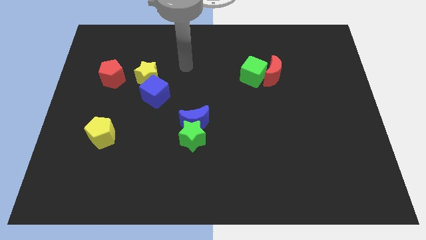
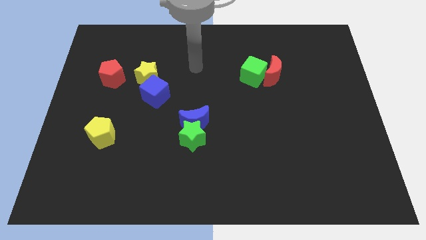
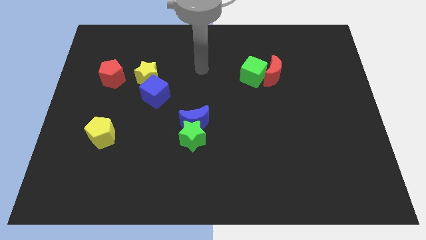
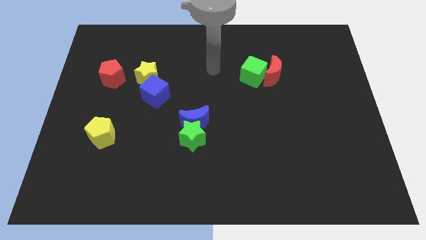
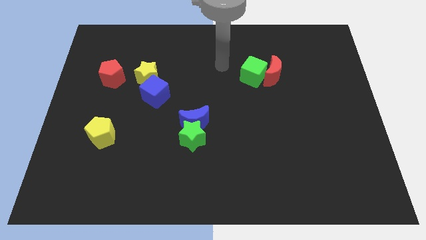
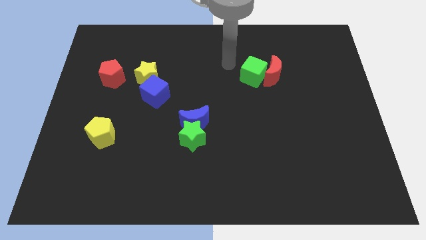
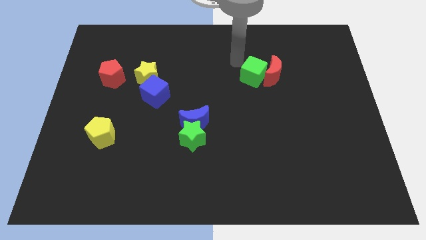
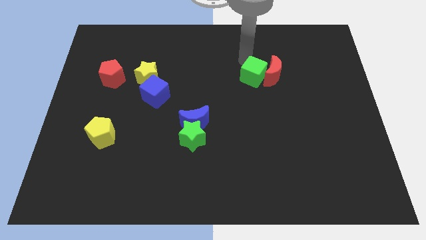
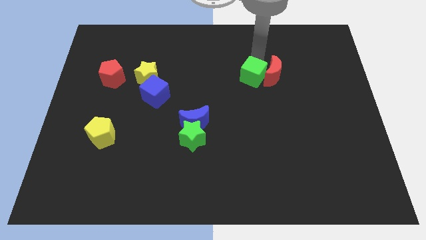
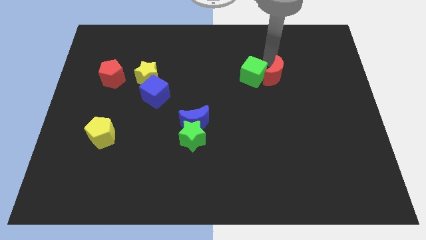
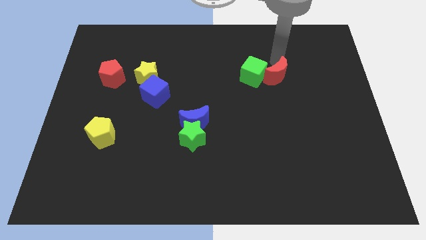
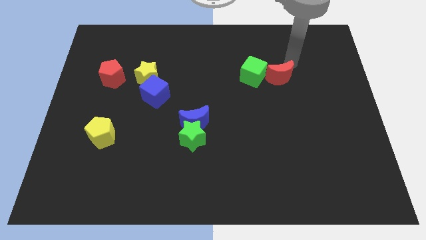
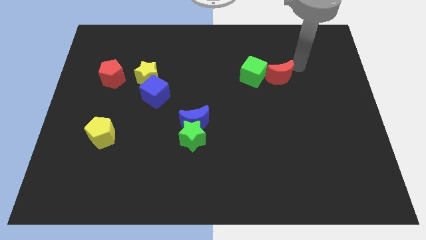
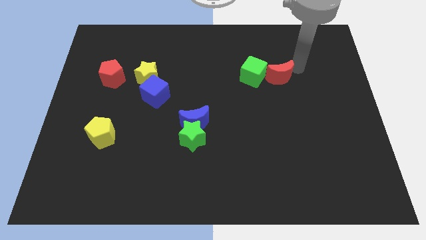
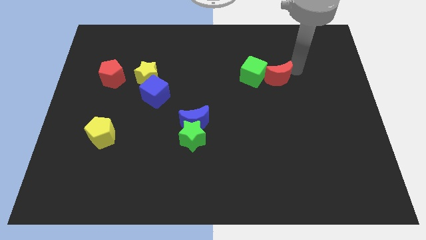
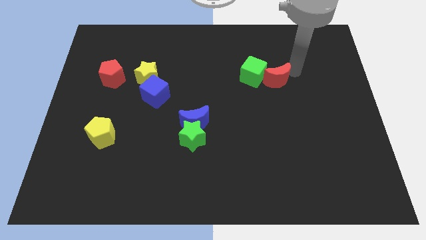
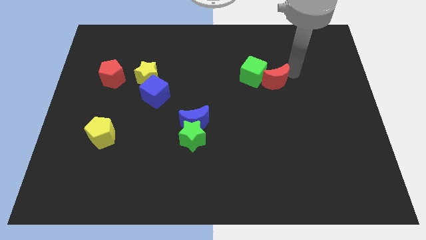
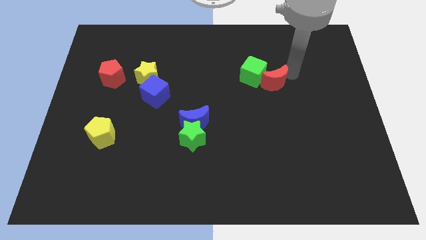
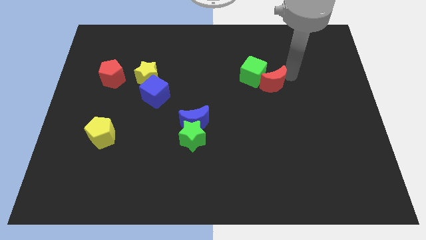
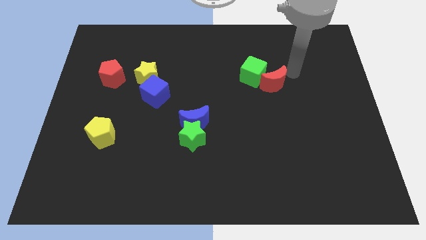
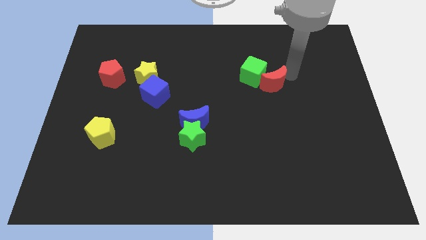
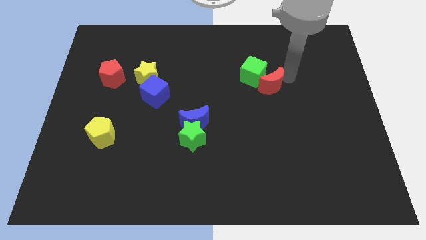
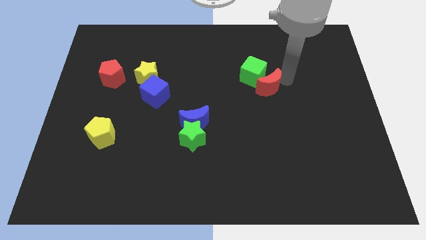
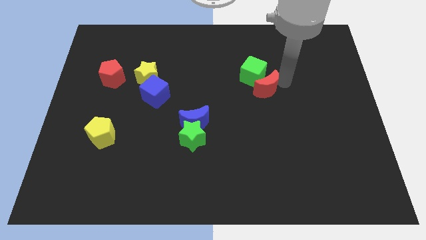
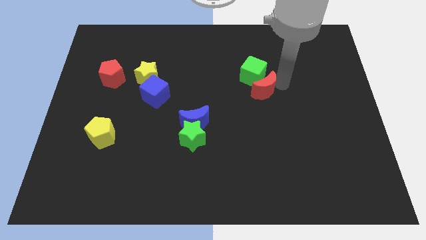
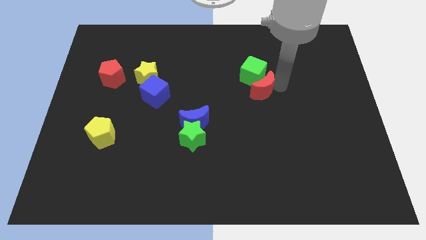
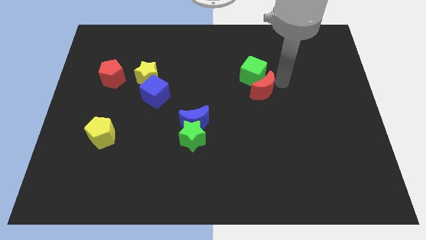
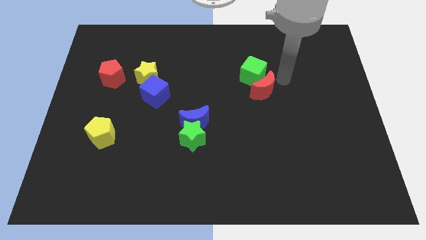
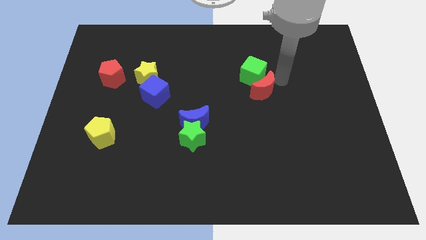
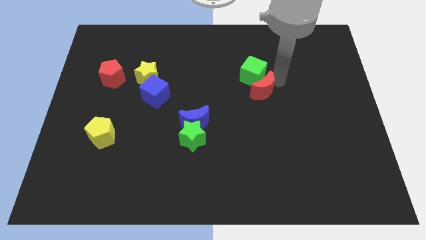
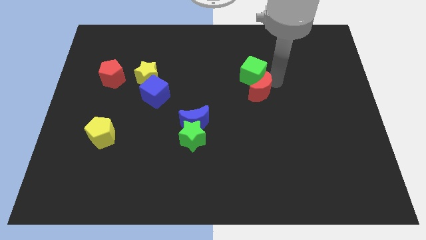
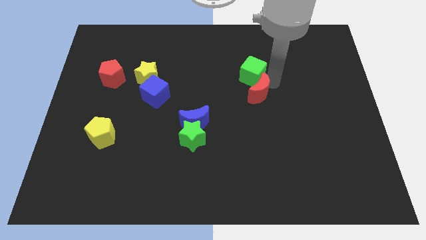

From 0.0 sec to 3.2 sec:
slightly slide the red moon down and left diagonally

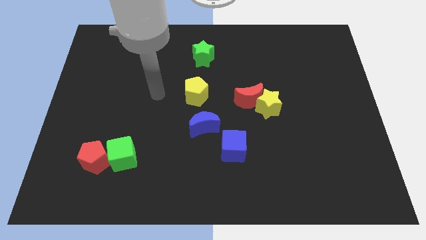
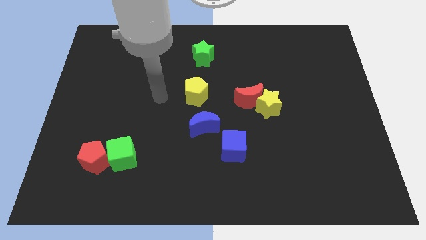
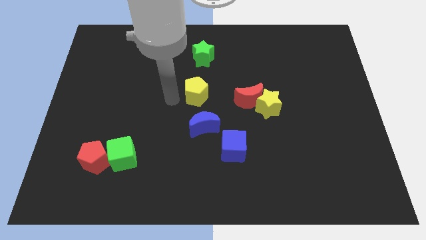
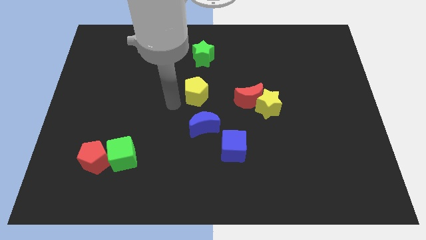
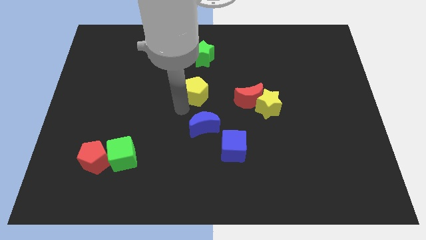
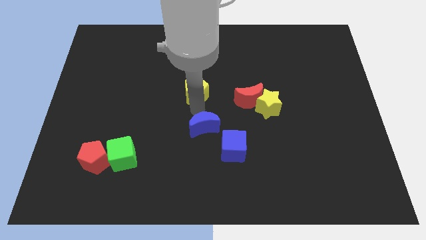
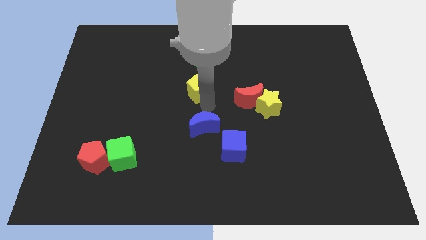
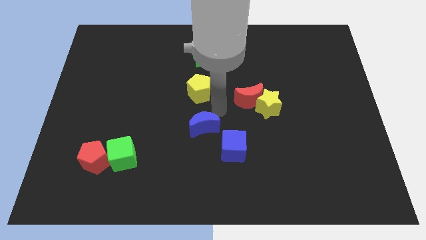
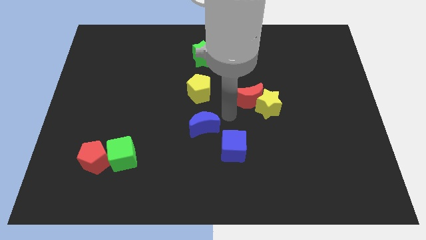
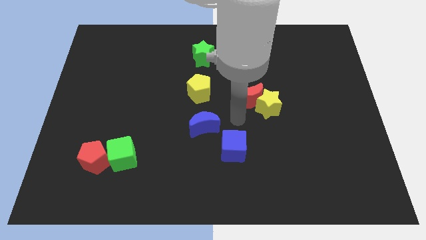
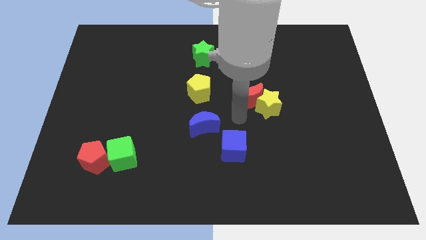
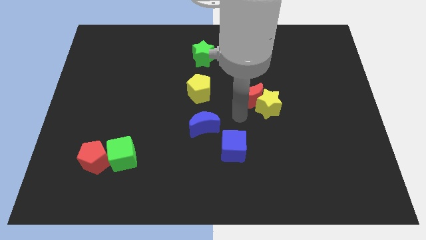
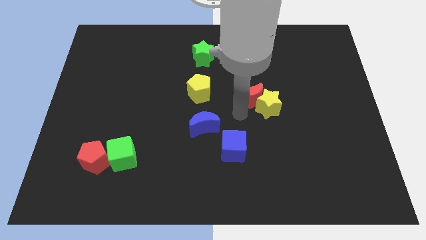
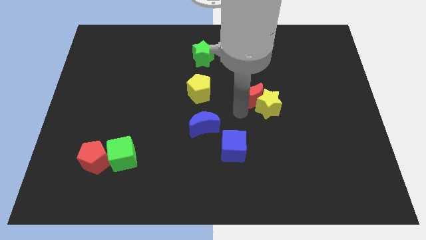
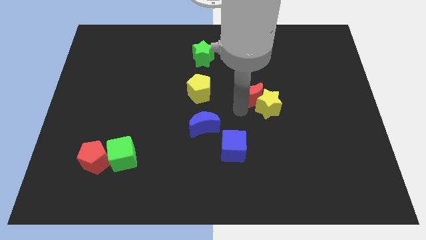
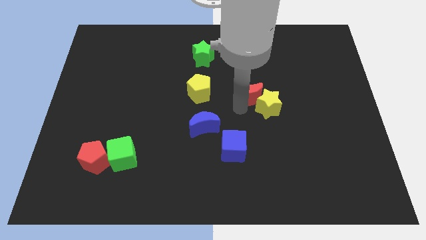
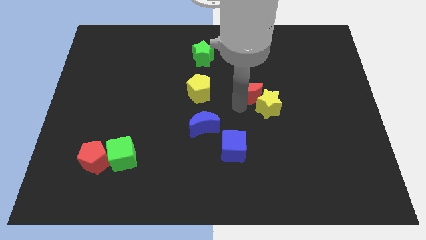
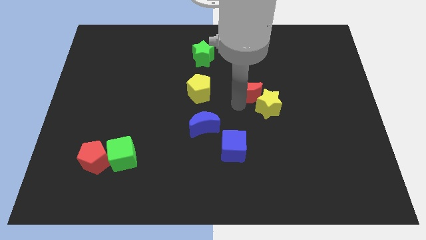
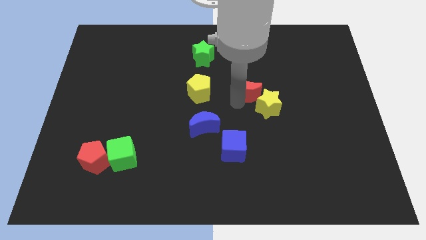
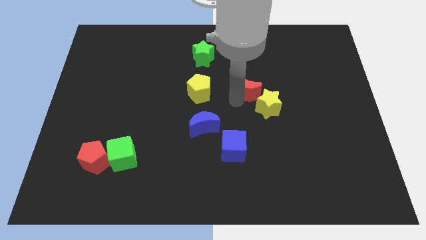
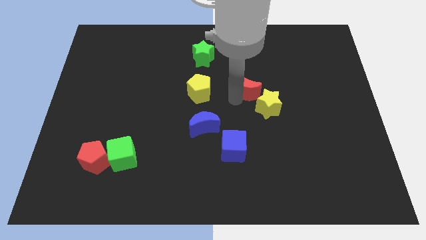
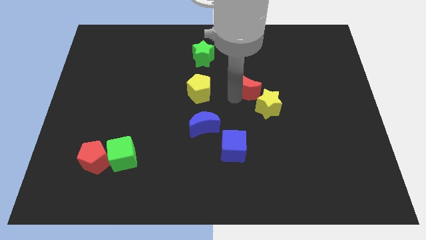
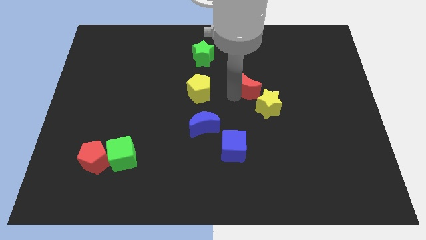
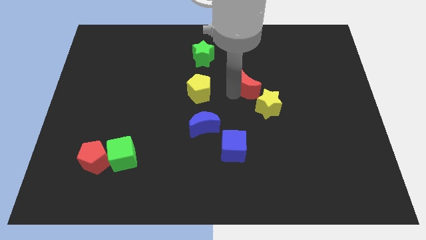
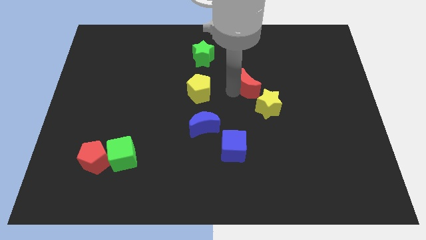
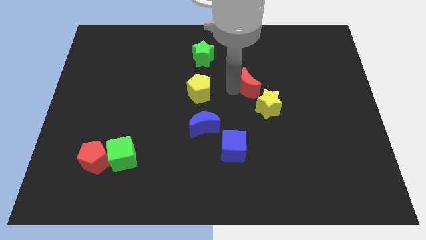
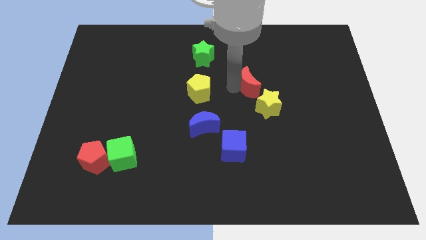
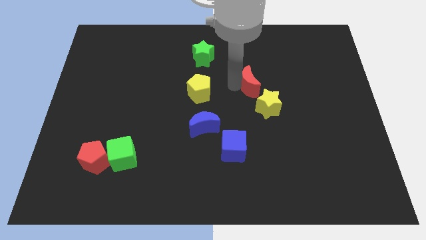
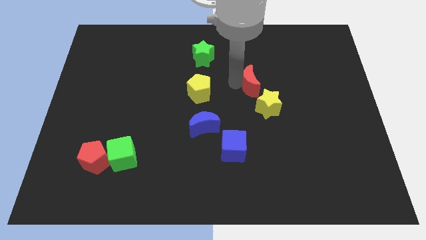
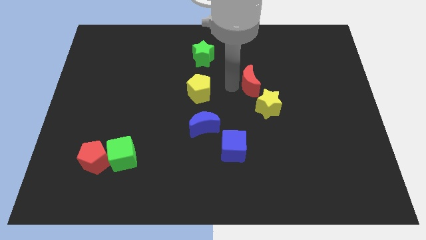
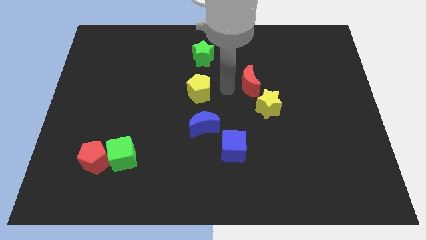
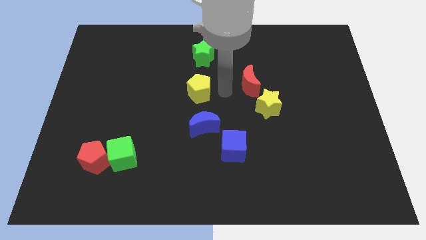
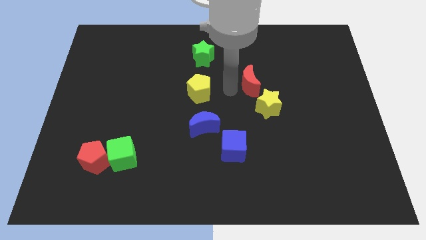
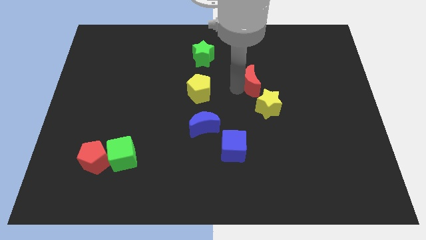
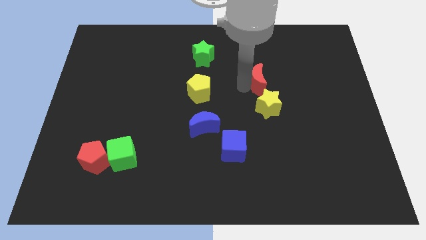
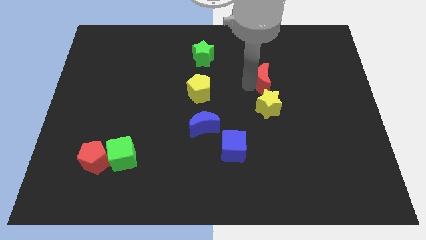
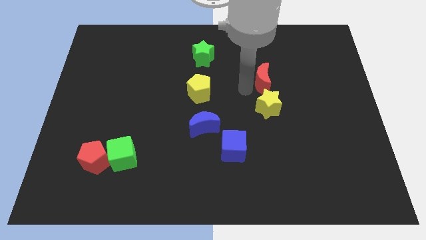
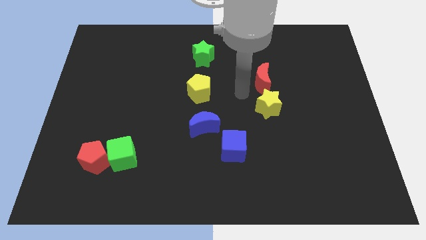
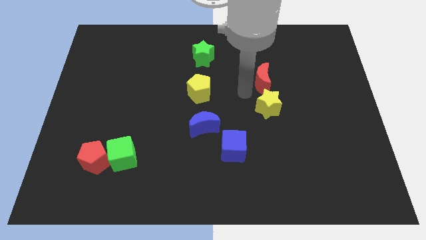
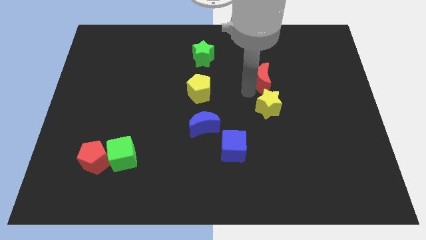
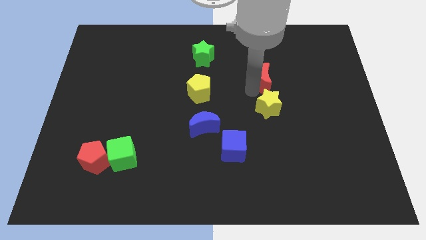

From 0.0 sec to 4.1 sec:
push the red moon a little up and to the right diagonally

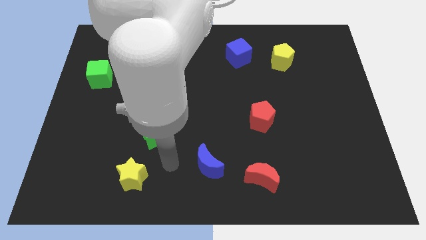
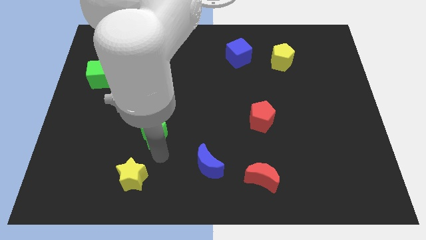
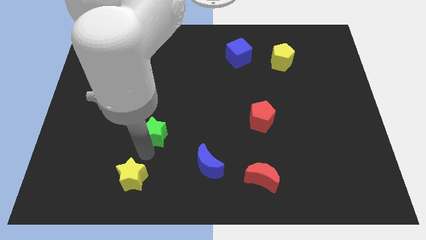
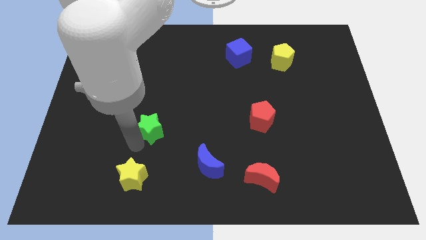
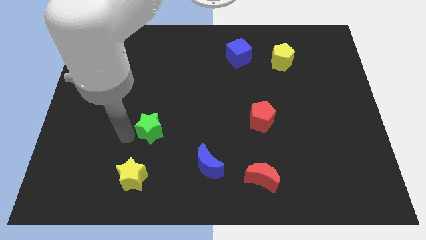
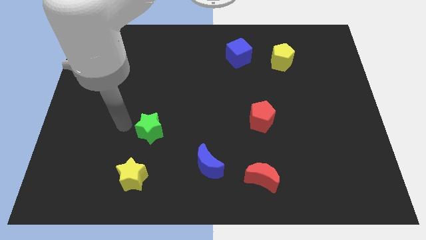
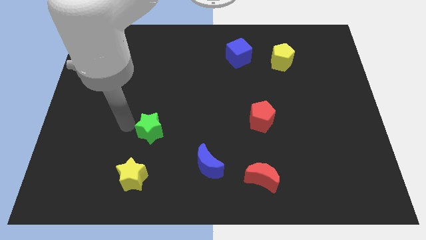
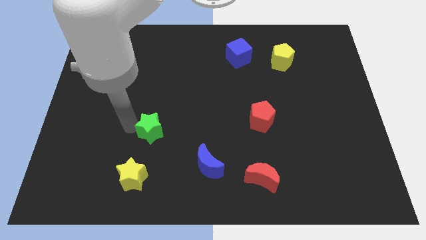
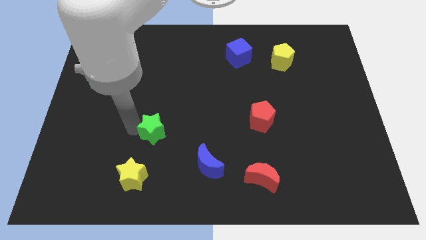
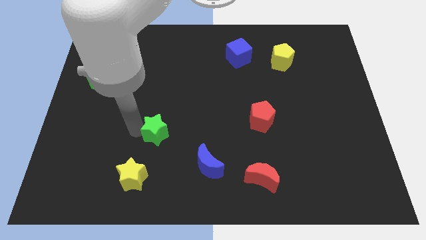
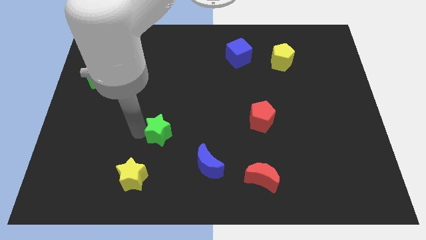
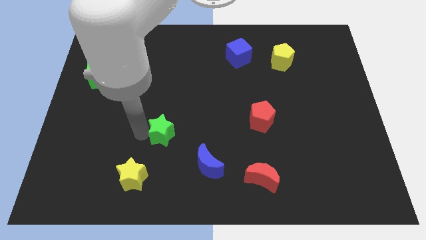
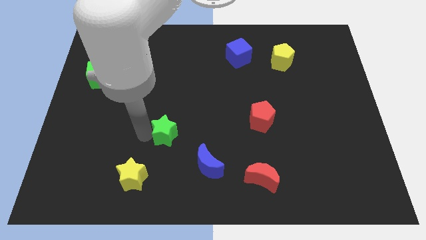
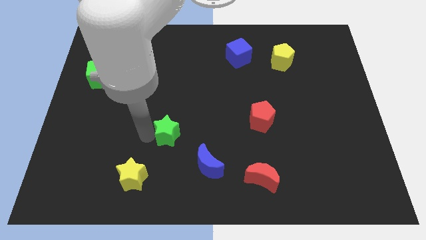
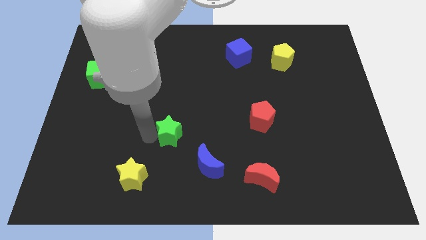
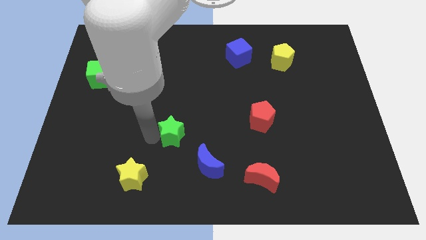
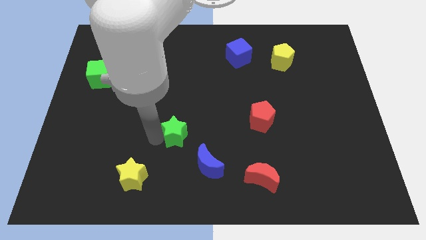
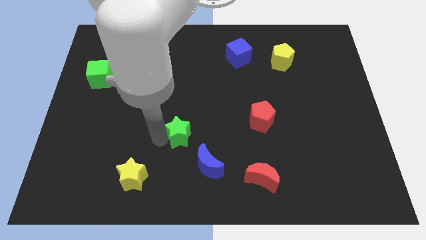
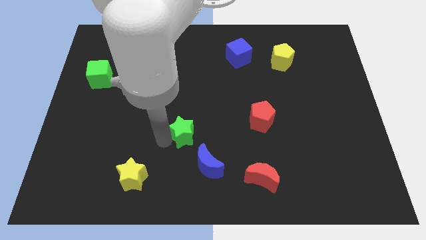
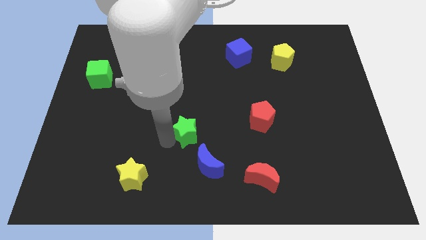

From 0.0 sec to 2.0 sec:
slightly move the green star to the right
